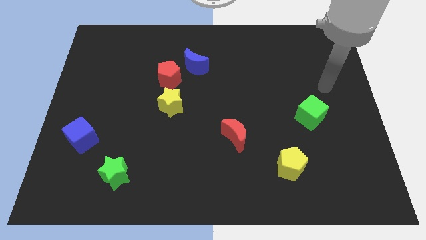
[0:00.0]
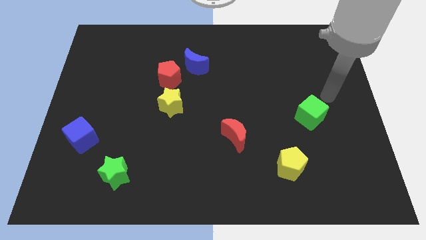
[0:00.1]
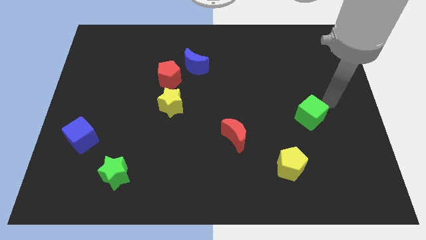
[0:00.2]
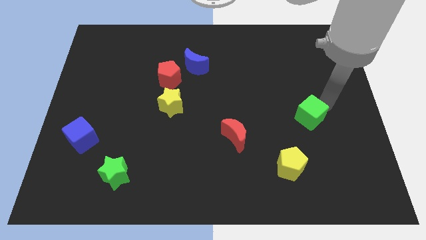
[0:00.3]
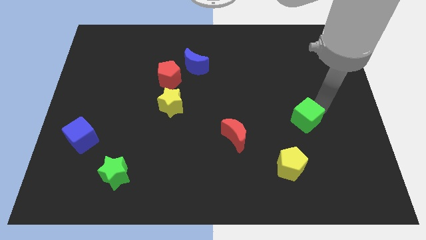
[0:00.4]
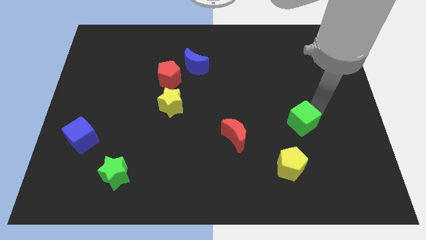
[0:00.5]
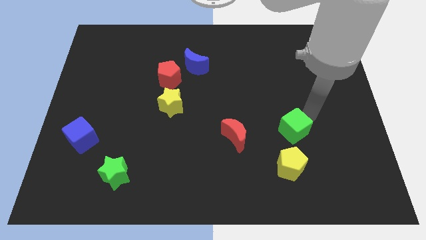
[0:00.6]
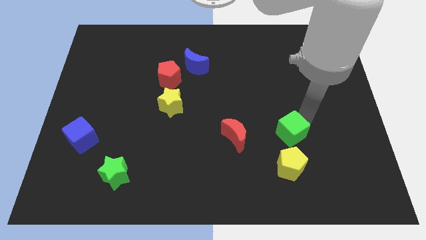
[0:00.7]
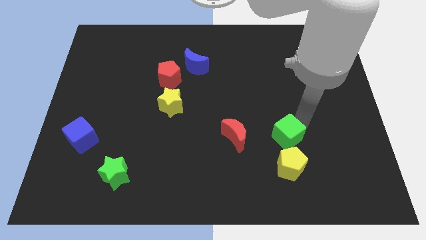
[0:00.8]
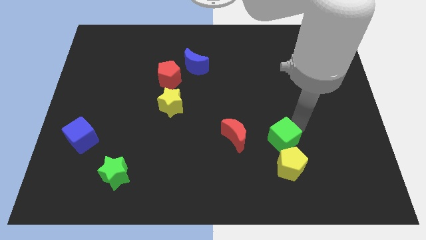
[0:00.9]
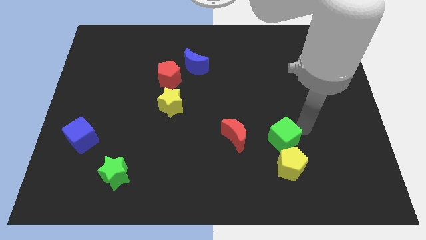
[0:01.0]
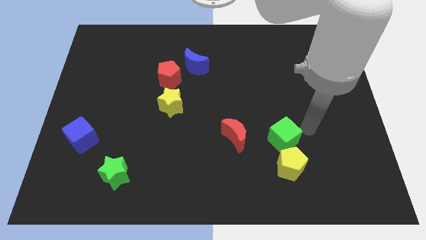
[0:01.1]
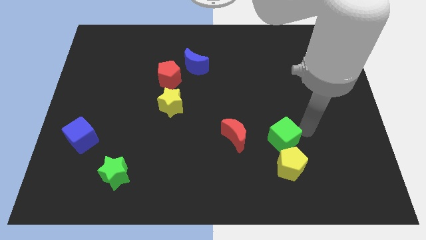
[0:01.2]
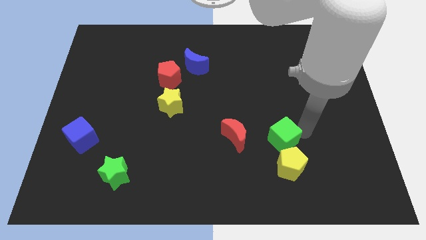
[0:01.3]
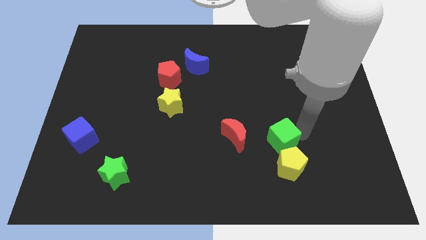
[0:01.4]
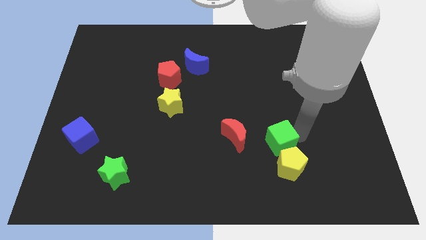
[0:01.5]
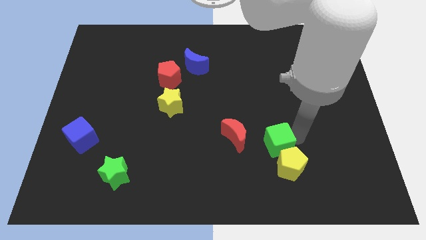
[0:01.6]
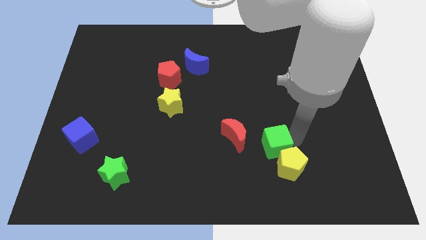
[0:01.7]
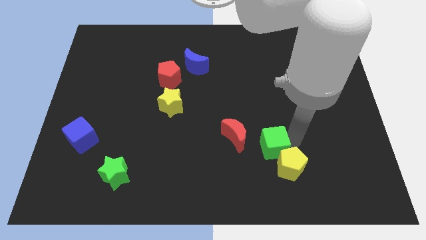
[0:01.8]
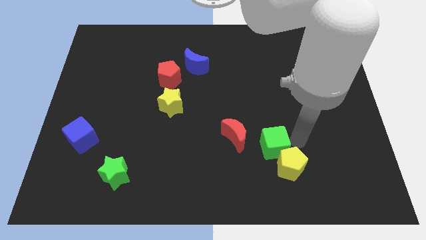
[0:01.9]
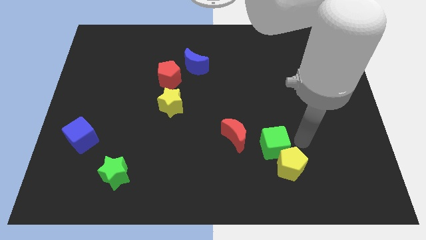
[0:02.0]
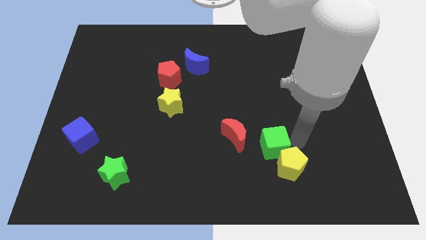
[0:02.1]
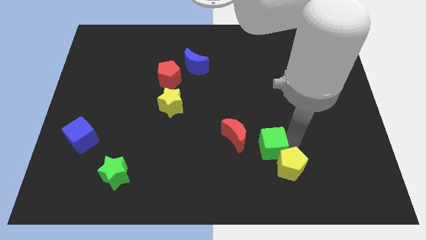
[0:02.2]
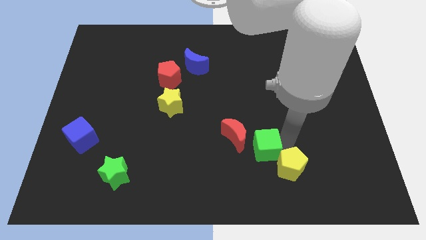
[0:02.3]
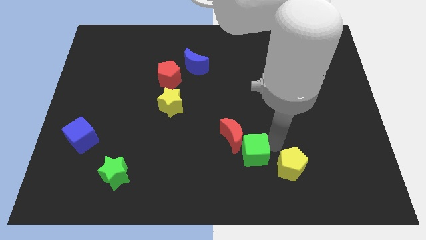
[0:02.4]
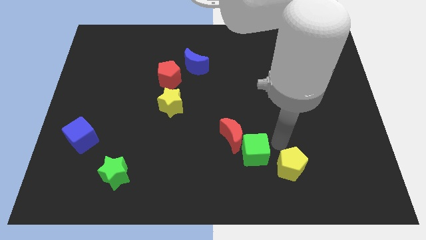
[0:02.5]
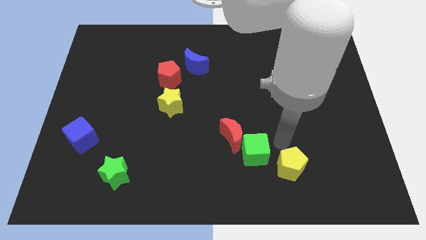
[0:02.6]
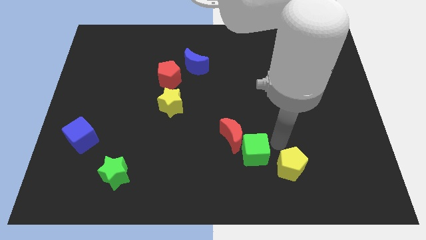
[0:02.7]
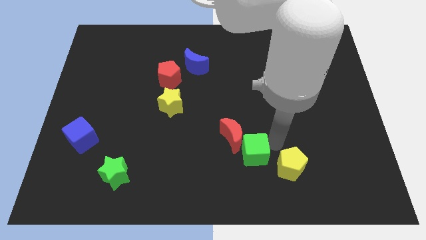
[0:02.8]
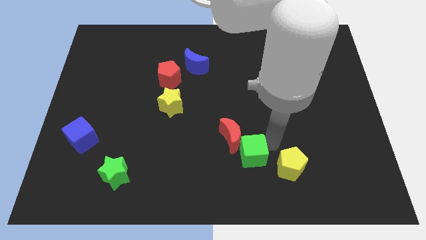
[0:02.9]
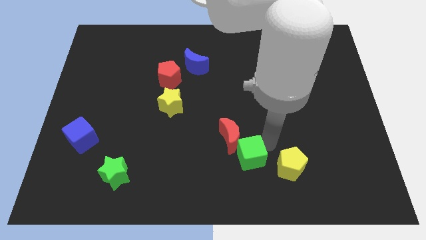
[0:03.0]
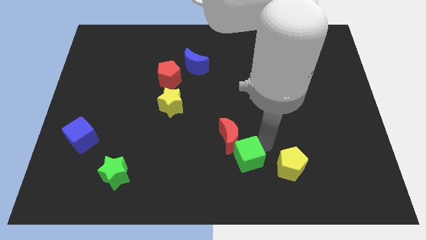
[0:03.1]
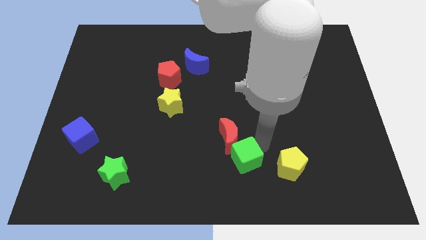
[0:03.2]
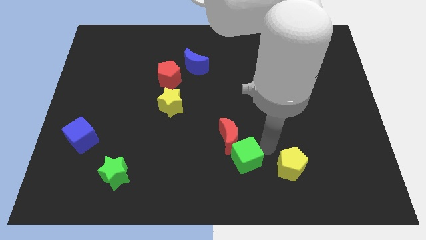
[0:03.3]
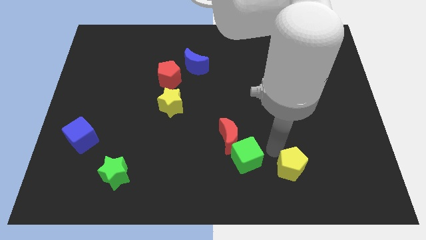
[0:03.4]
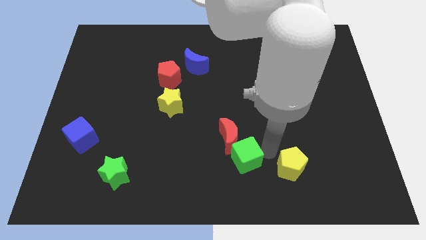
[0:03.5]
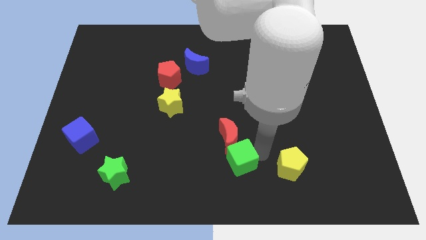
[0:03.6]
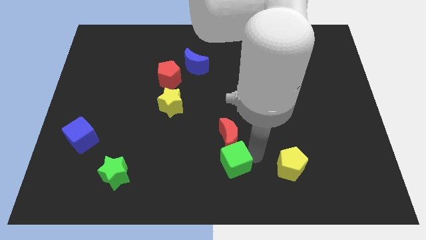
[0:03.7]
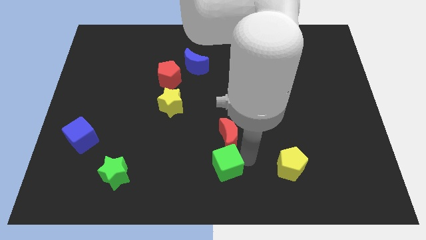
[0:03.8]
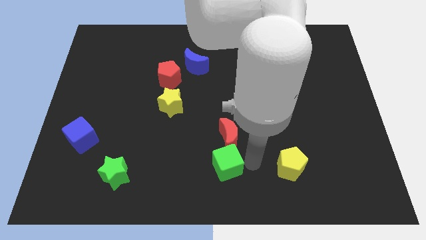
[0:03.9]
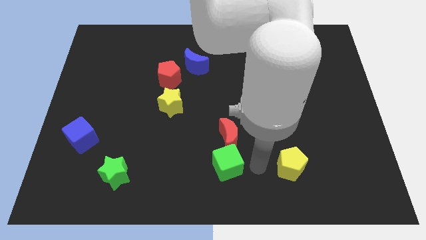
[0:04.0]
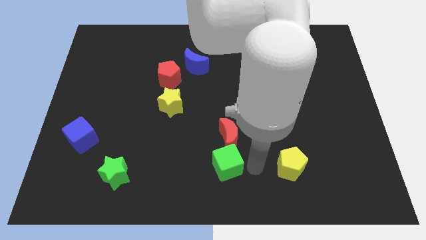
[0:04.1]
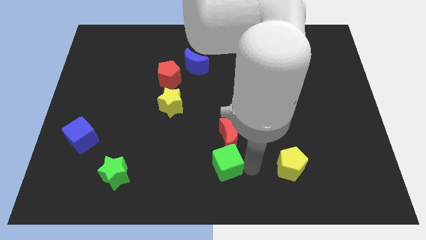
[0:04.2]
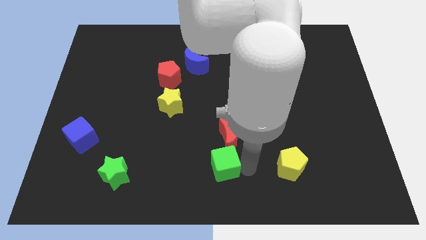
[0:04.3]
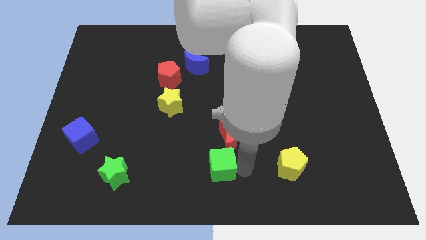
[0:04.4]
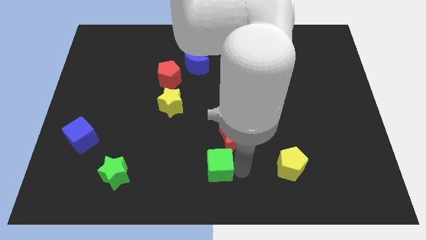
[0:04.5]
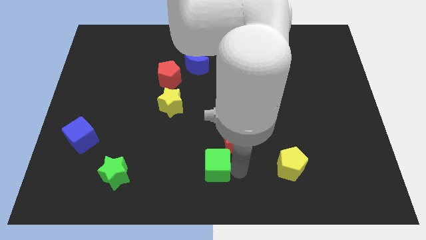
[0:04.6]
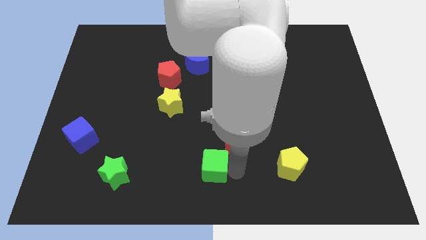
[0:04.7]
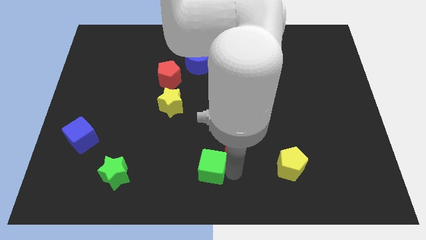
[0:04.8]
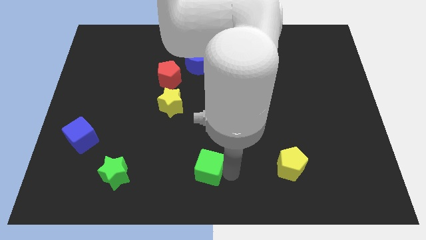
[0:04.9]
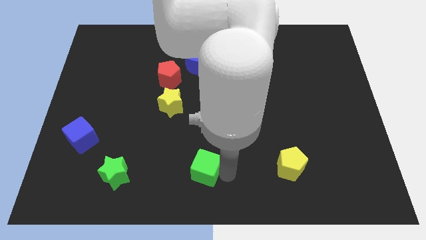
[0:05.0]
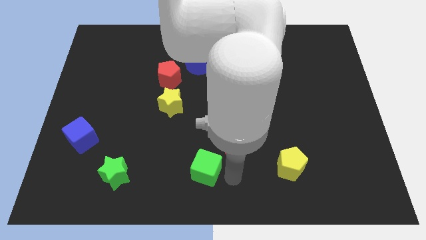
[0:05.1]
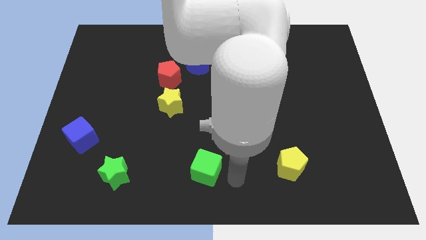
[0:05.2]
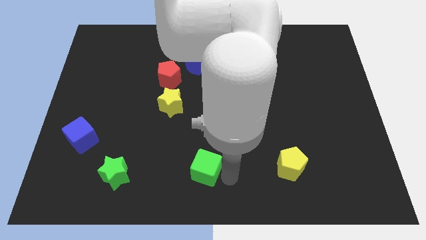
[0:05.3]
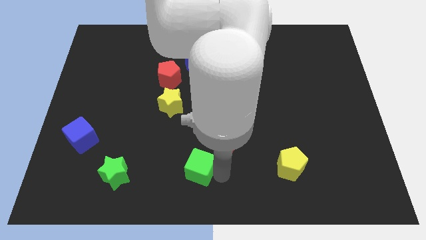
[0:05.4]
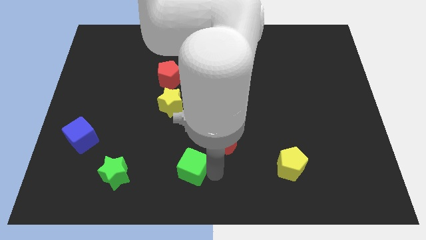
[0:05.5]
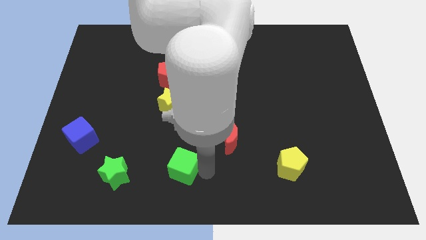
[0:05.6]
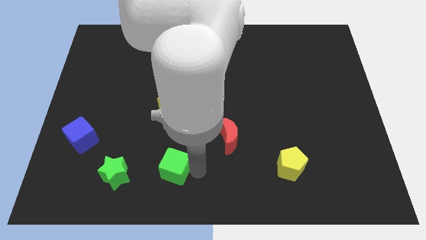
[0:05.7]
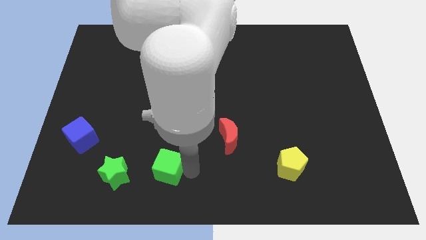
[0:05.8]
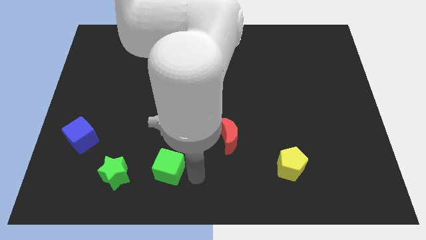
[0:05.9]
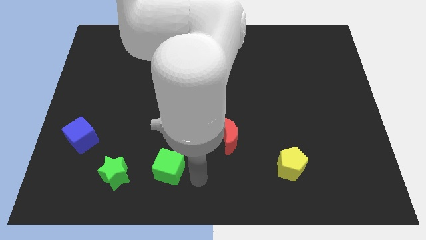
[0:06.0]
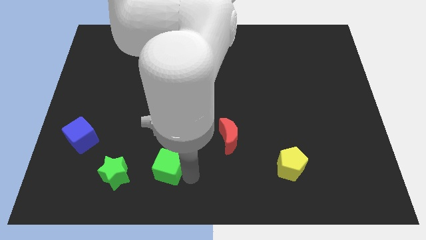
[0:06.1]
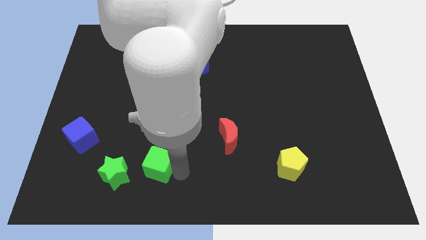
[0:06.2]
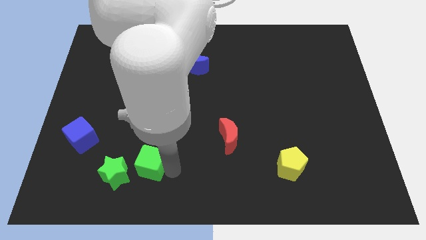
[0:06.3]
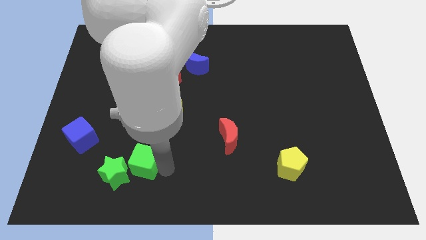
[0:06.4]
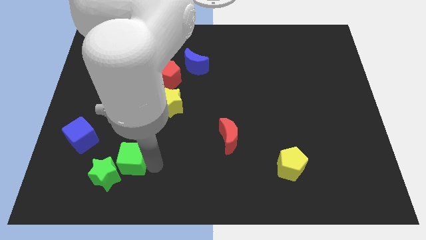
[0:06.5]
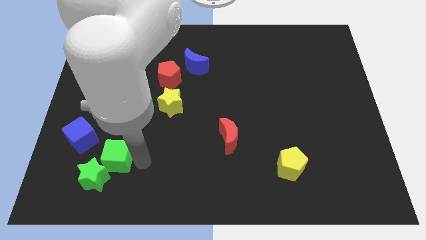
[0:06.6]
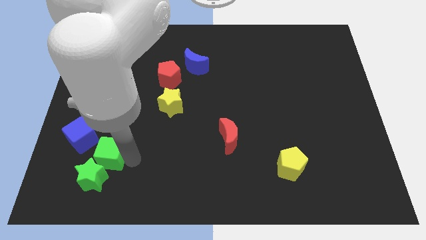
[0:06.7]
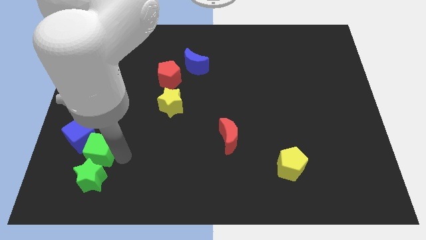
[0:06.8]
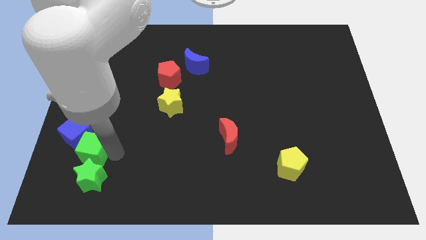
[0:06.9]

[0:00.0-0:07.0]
slide the green cube to the top left side of the green star
